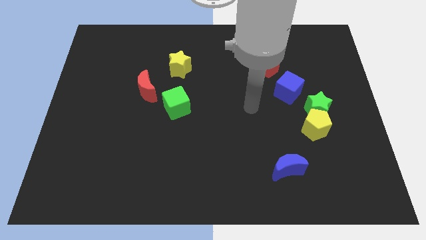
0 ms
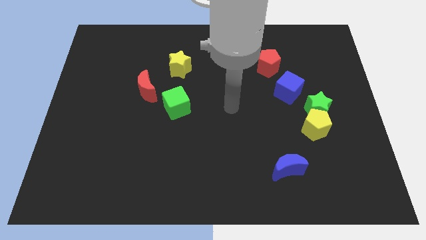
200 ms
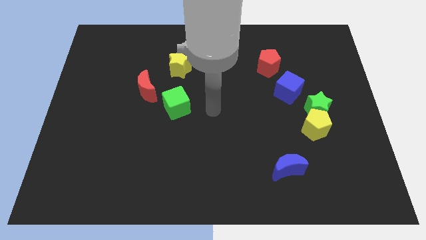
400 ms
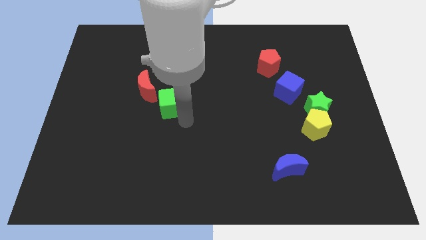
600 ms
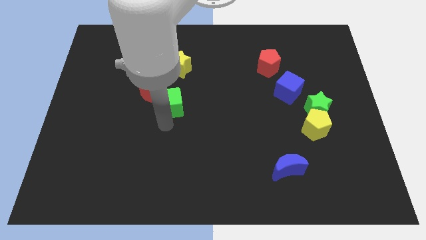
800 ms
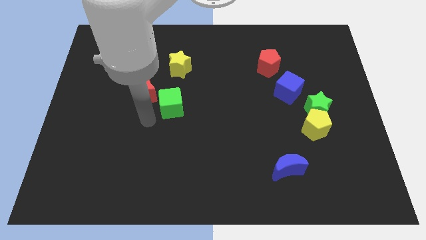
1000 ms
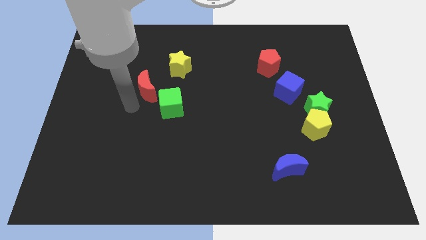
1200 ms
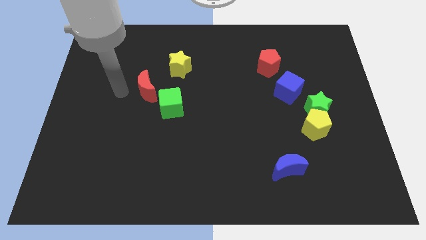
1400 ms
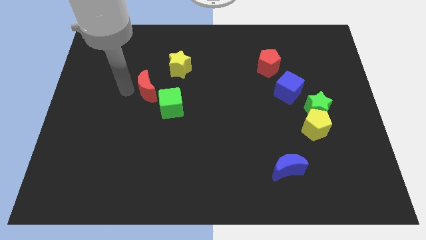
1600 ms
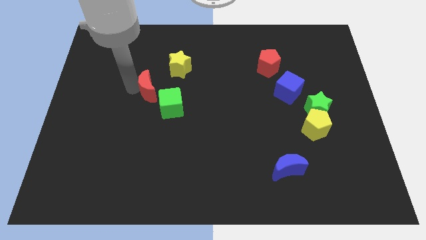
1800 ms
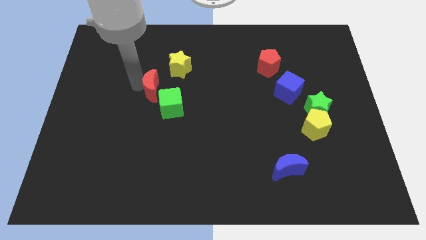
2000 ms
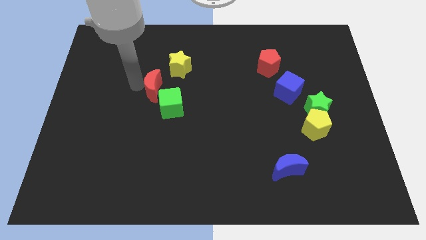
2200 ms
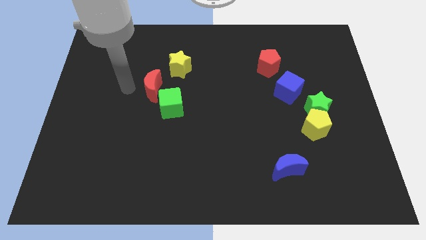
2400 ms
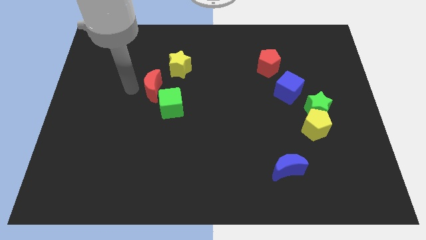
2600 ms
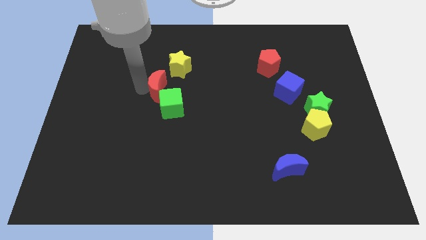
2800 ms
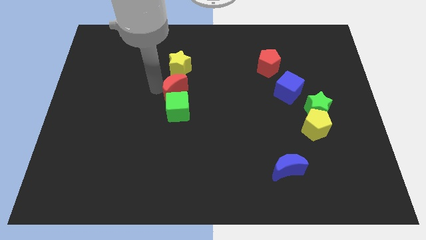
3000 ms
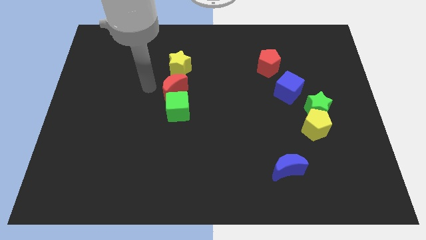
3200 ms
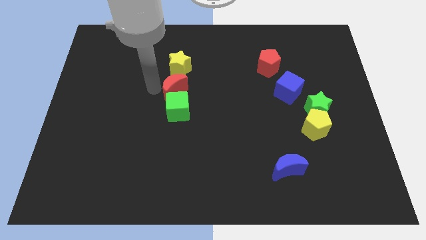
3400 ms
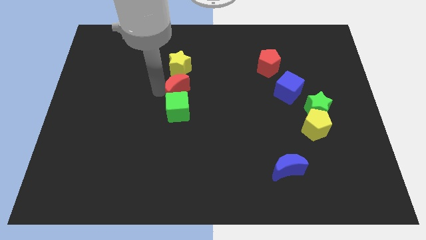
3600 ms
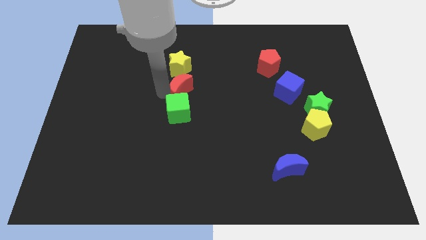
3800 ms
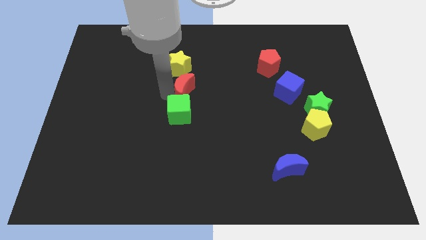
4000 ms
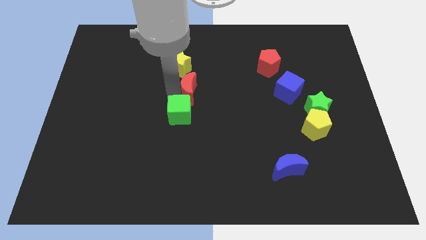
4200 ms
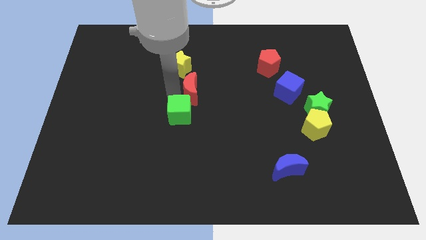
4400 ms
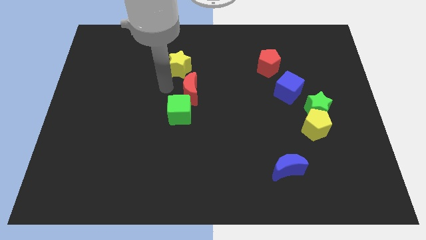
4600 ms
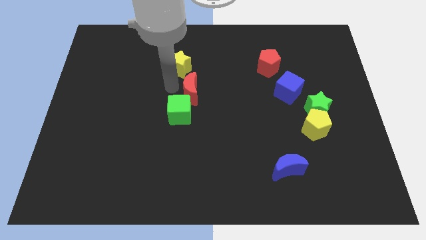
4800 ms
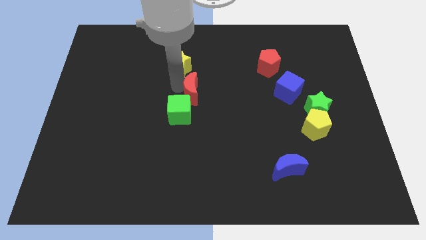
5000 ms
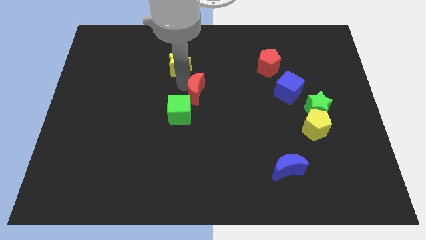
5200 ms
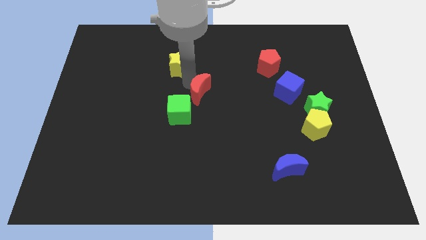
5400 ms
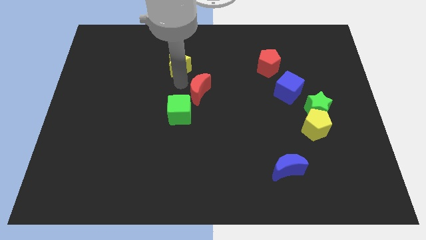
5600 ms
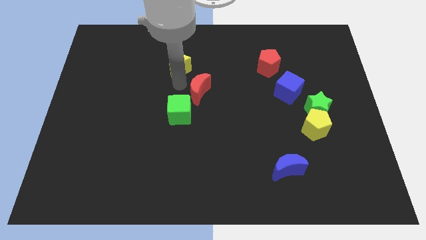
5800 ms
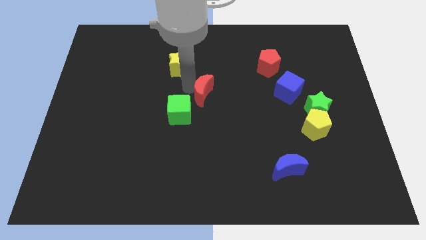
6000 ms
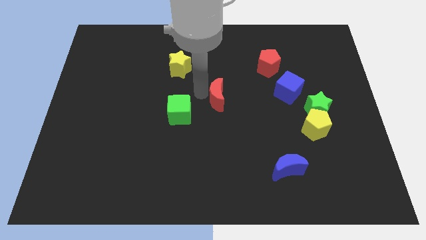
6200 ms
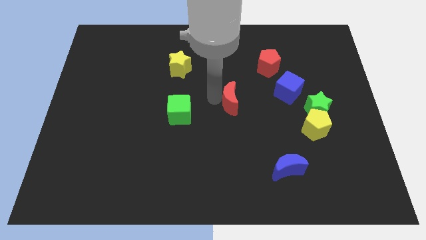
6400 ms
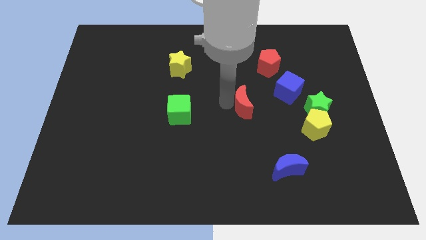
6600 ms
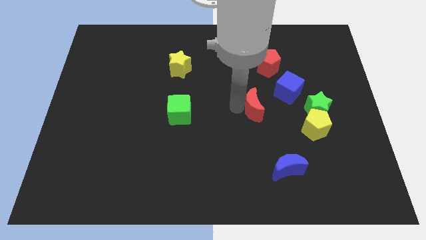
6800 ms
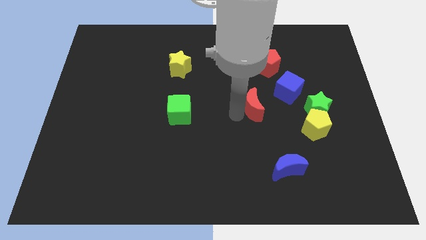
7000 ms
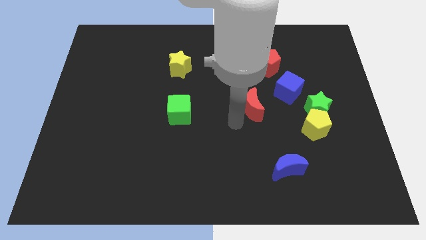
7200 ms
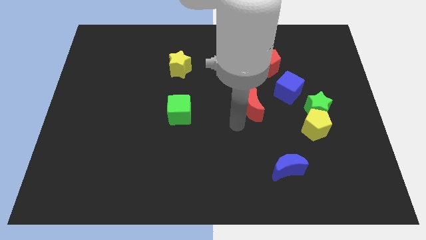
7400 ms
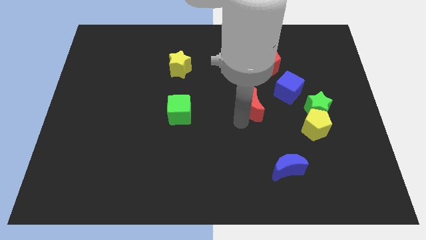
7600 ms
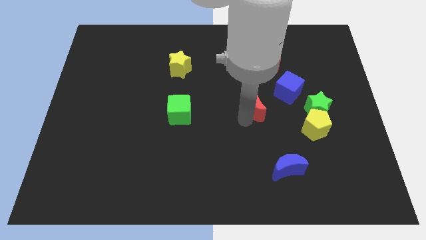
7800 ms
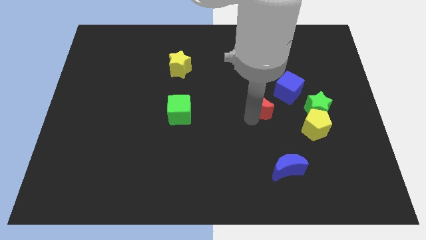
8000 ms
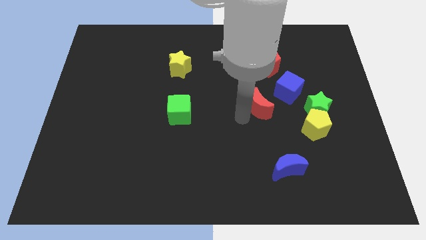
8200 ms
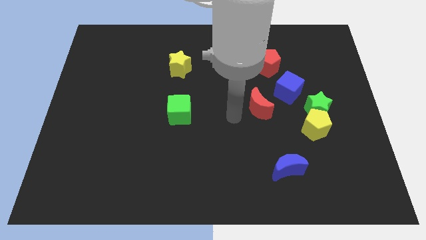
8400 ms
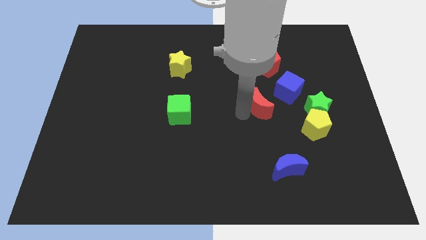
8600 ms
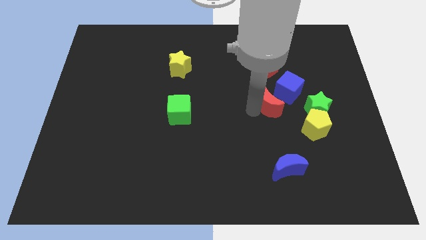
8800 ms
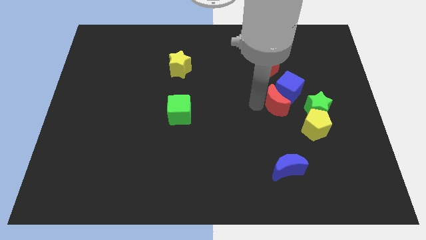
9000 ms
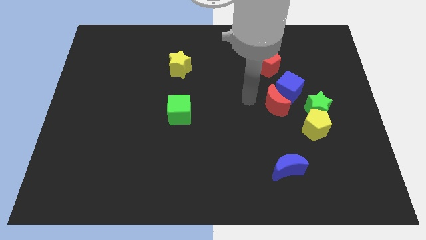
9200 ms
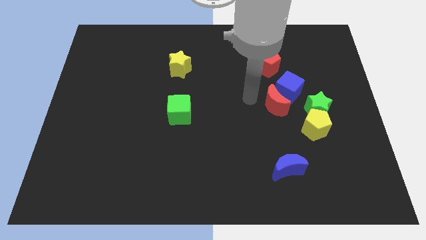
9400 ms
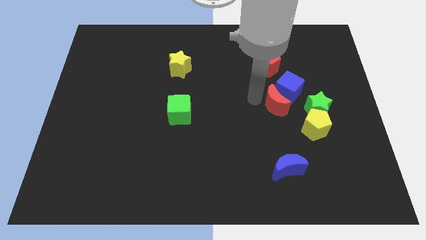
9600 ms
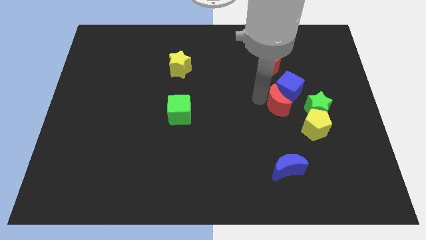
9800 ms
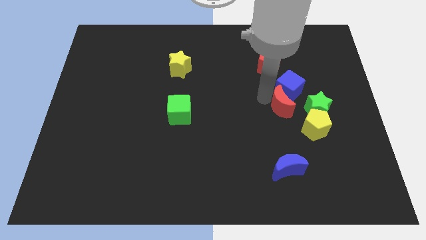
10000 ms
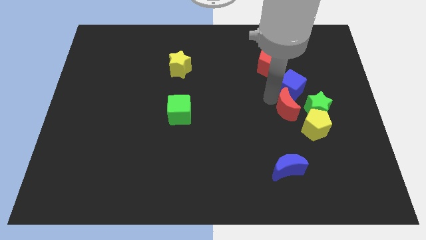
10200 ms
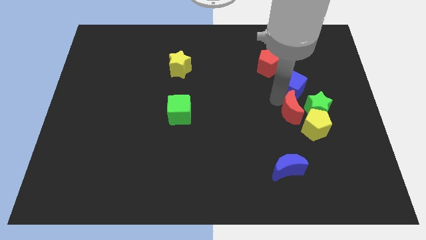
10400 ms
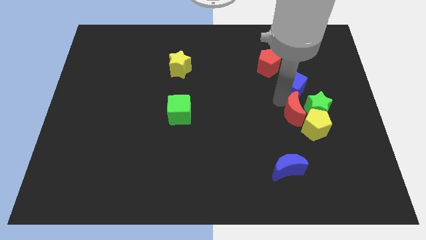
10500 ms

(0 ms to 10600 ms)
move the red moon next to the green star

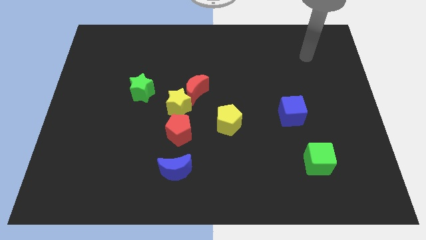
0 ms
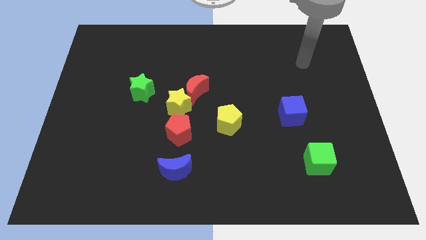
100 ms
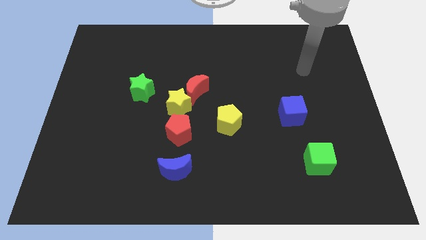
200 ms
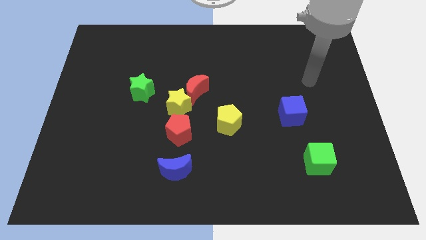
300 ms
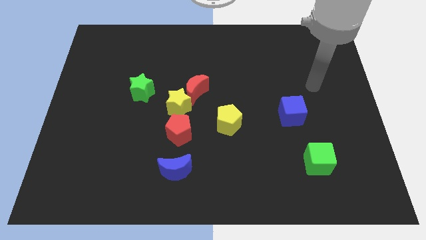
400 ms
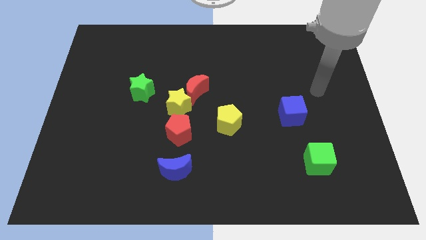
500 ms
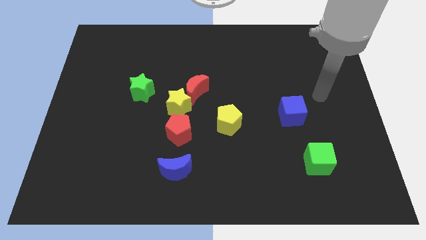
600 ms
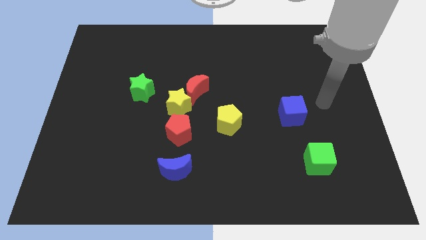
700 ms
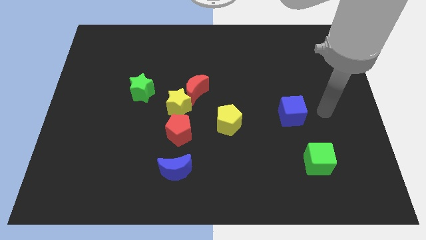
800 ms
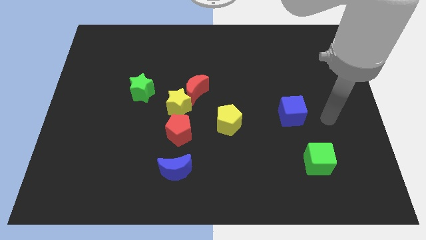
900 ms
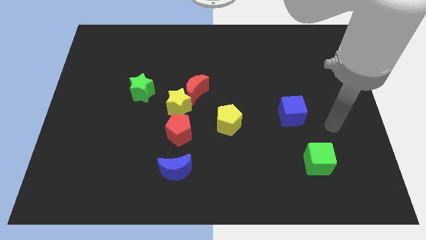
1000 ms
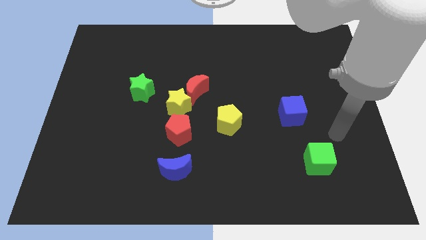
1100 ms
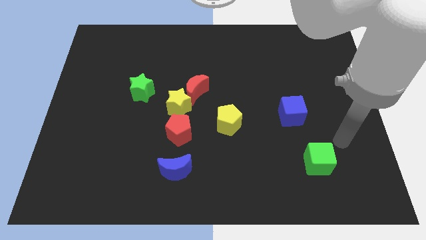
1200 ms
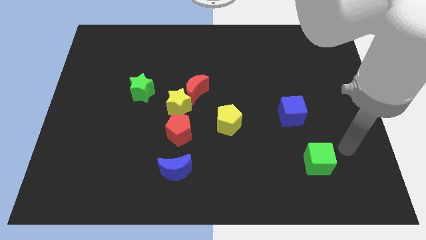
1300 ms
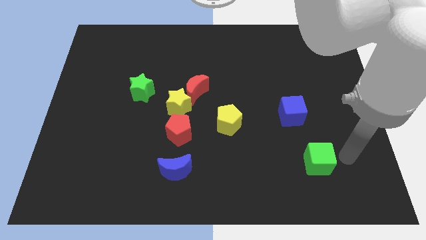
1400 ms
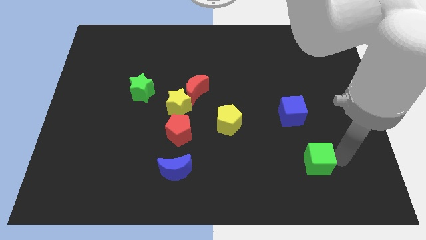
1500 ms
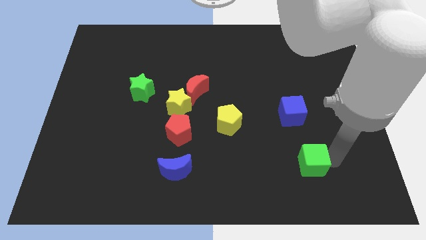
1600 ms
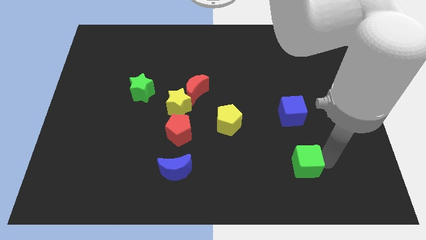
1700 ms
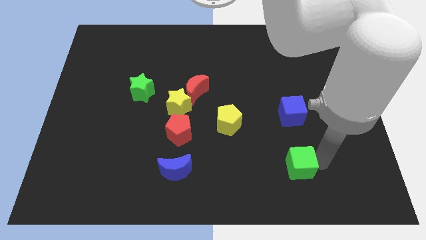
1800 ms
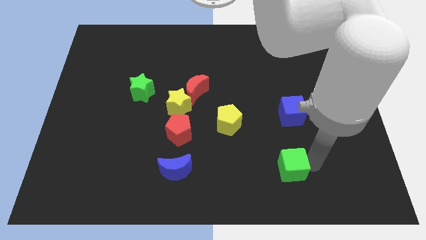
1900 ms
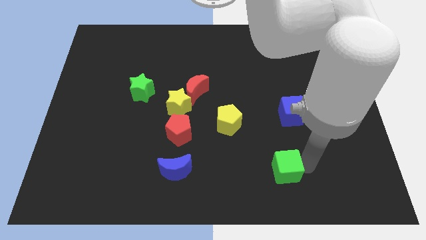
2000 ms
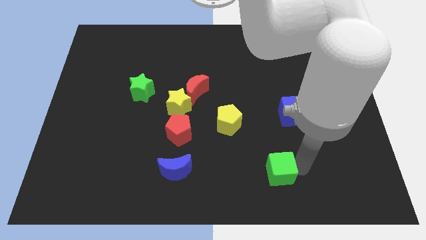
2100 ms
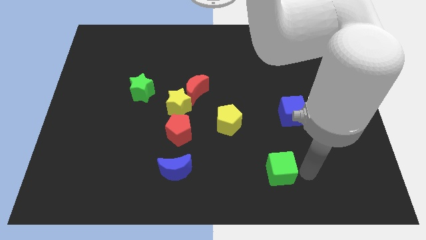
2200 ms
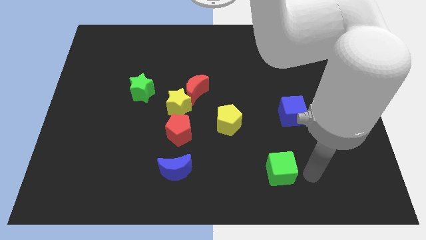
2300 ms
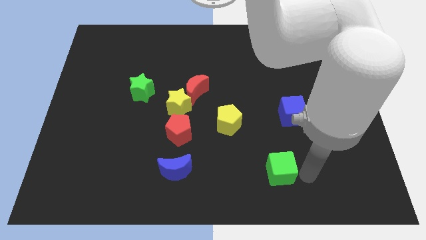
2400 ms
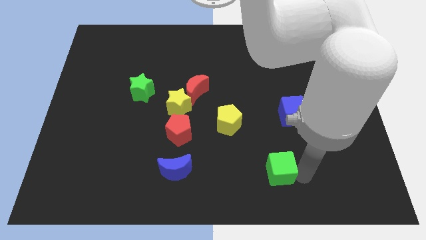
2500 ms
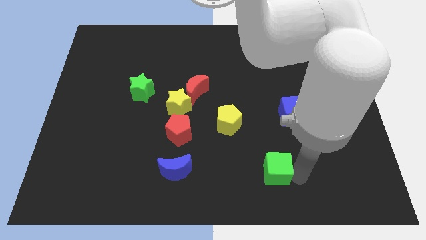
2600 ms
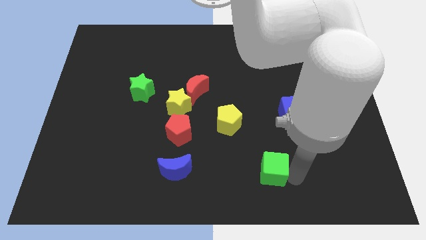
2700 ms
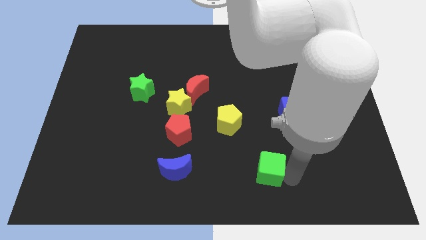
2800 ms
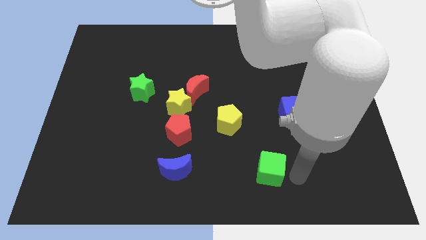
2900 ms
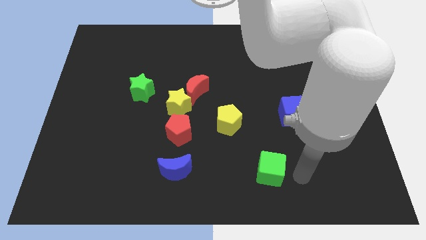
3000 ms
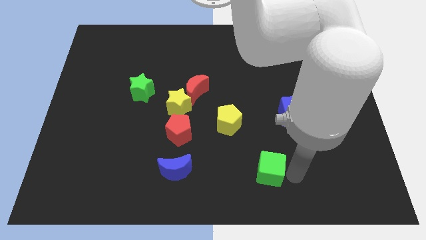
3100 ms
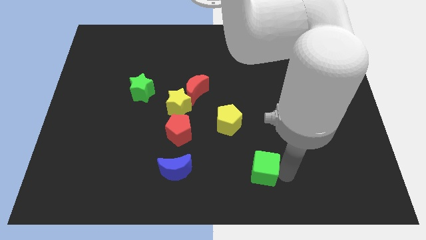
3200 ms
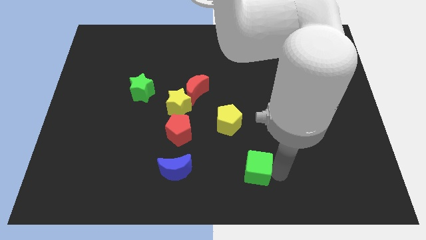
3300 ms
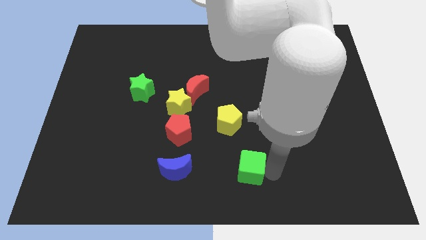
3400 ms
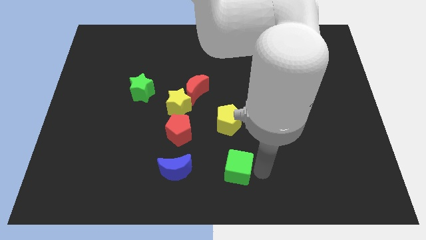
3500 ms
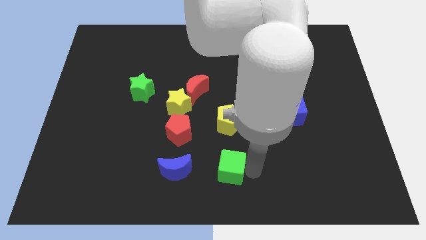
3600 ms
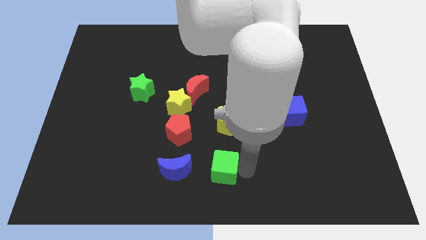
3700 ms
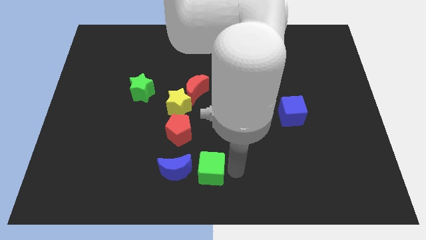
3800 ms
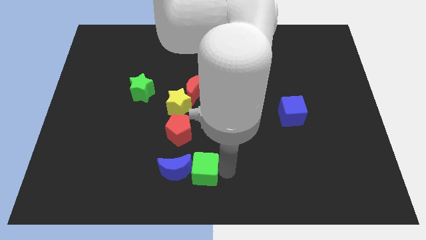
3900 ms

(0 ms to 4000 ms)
slide the green cube close to the blue moon
